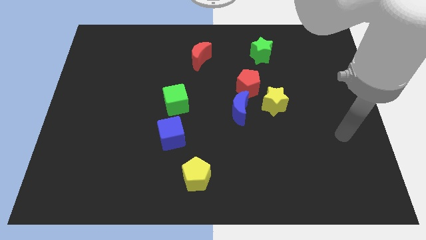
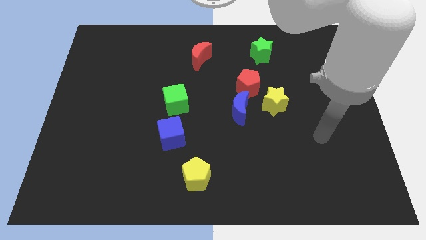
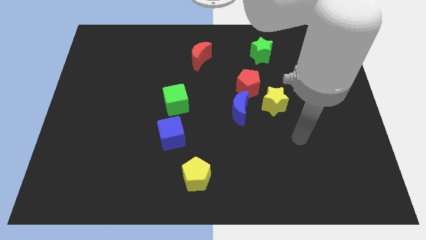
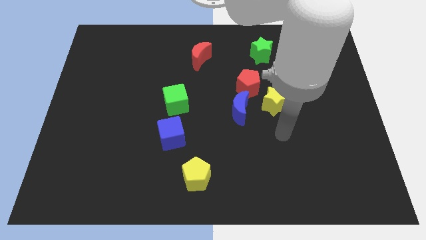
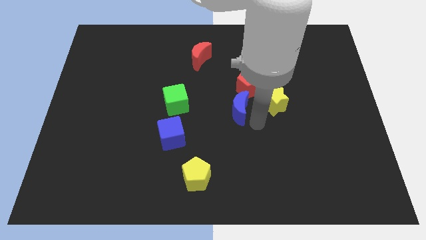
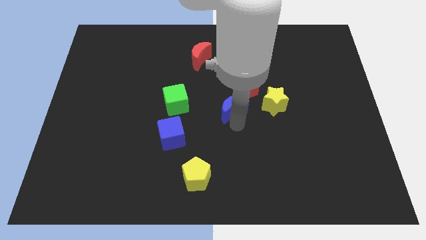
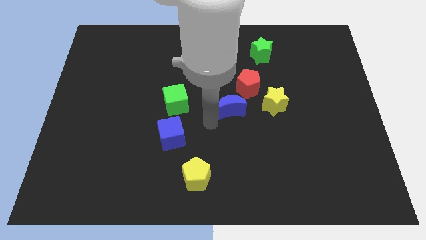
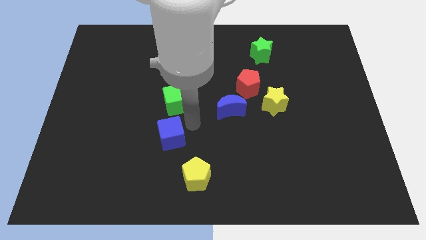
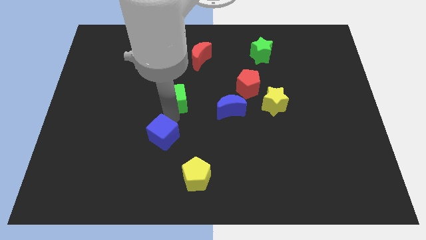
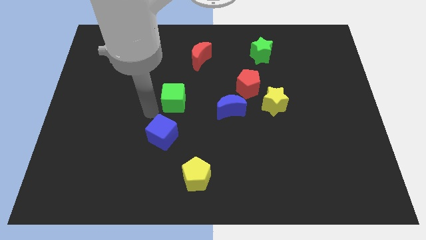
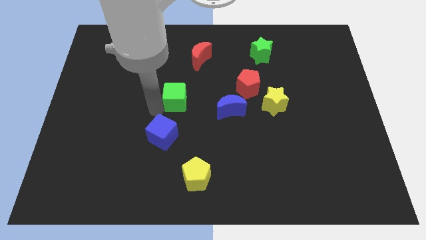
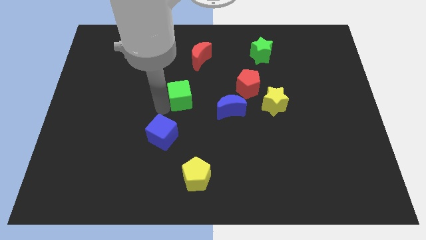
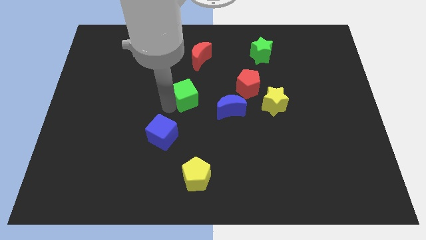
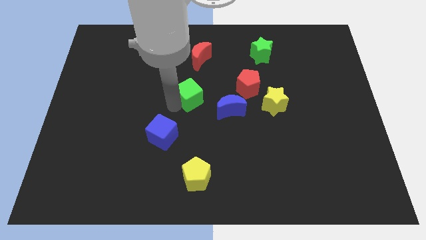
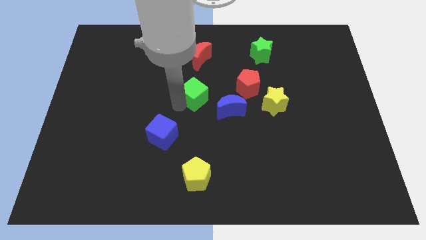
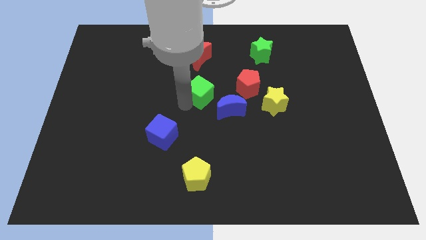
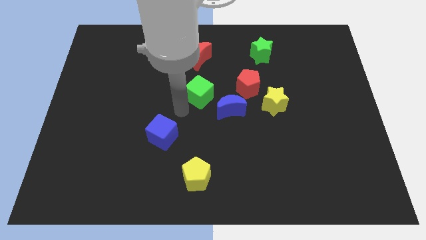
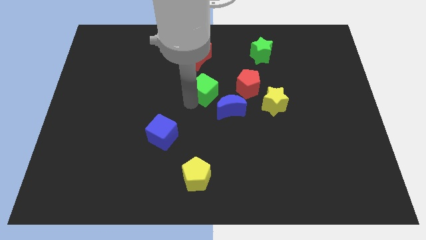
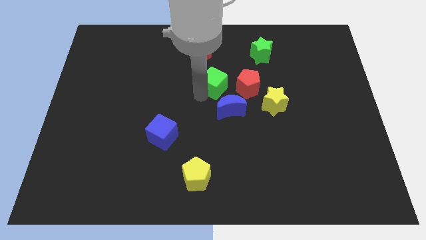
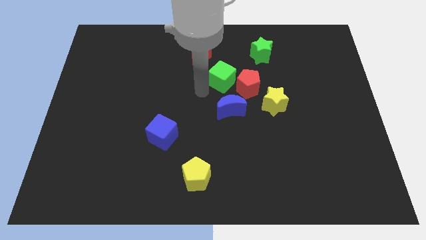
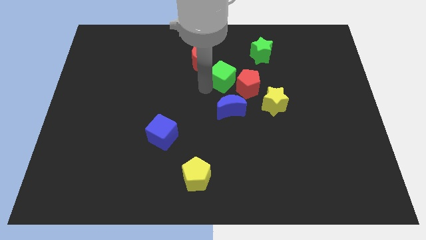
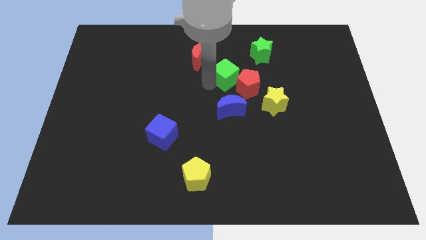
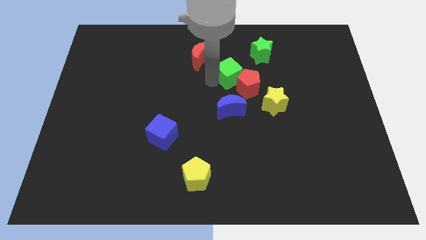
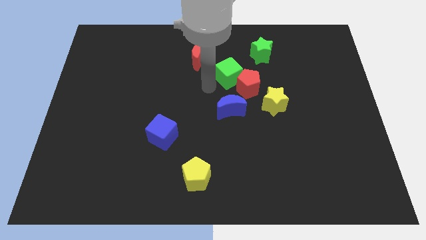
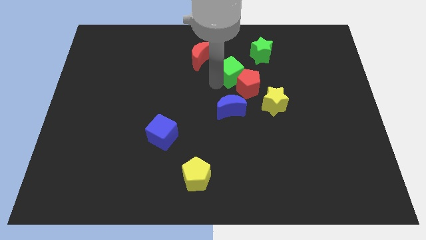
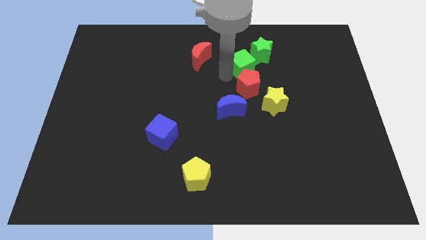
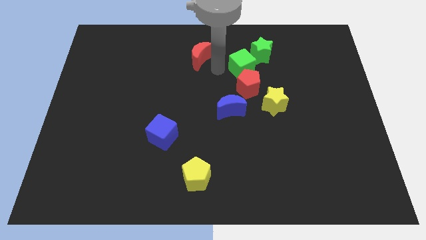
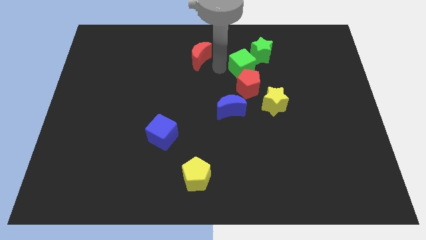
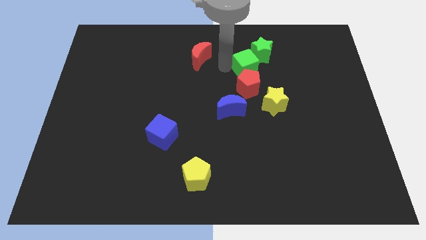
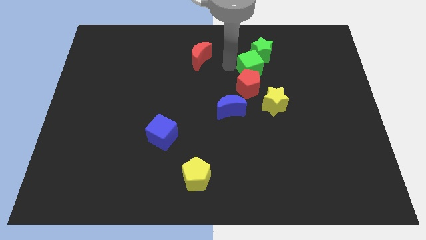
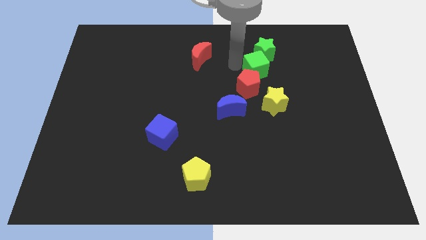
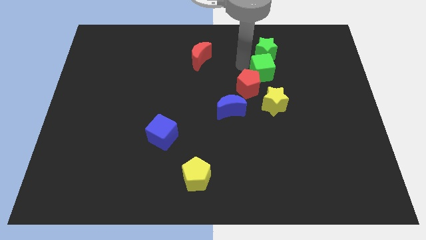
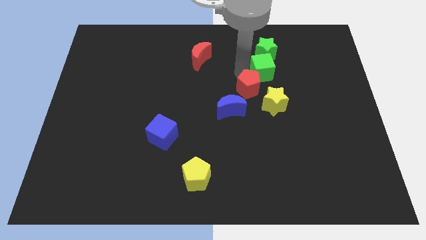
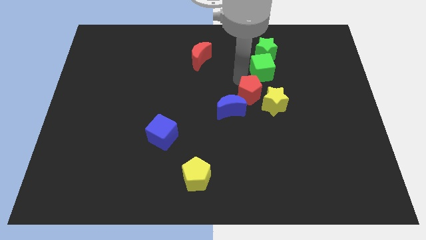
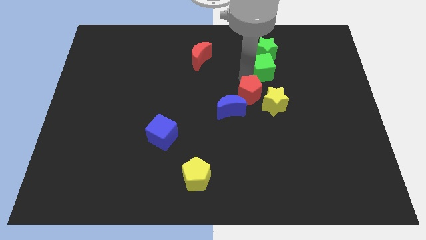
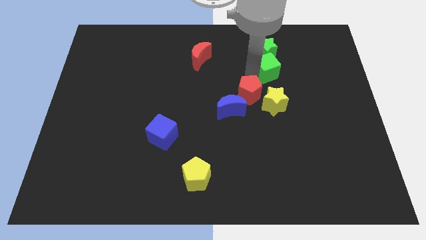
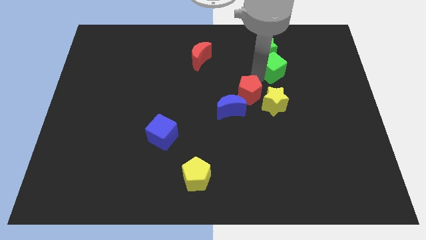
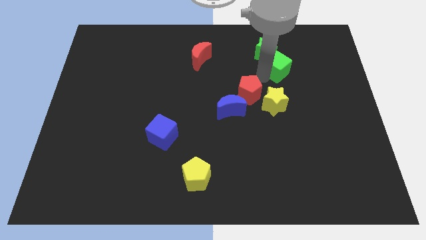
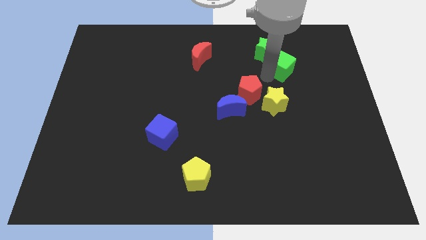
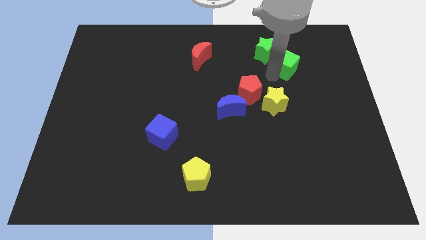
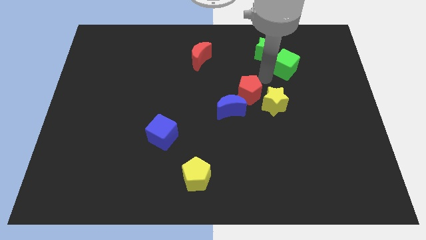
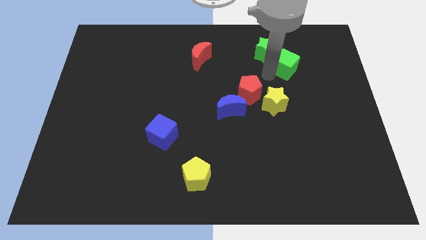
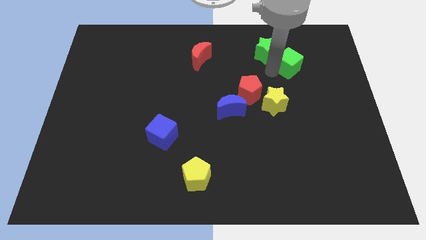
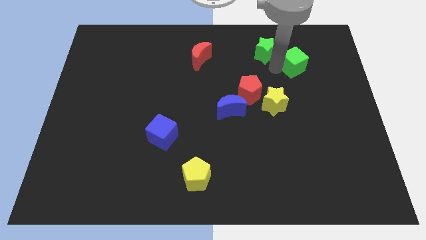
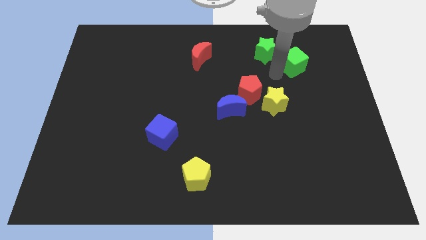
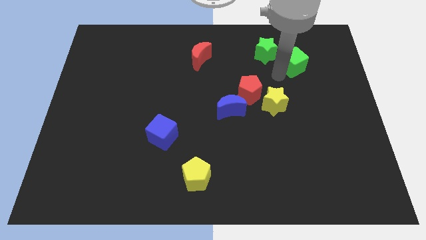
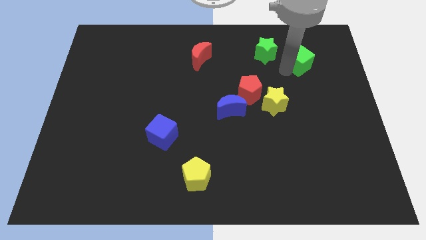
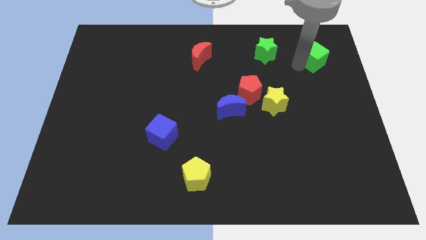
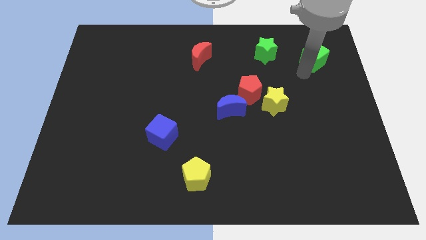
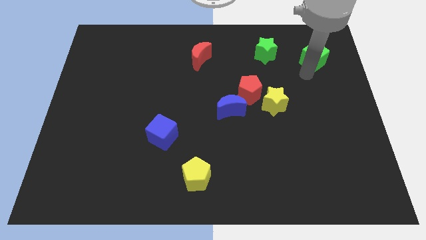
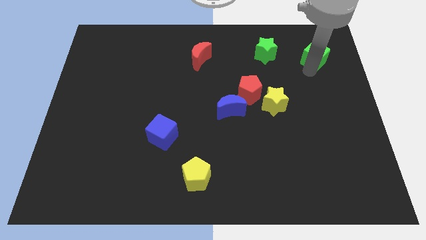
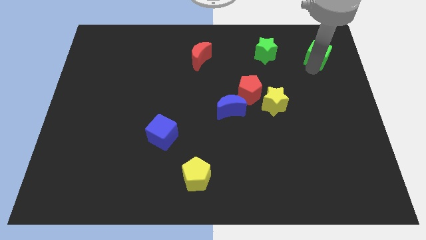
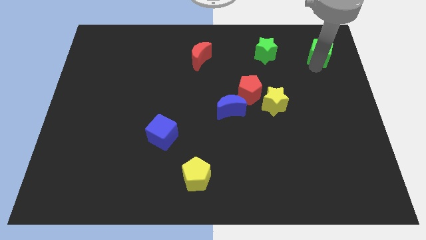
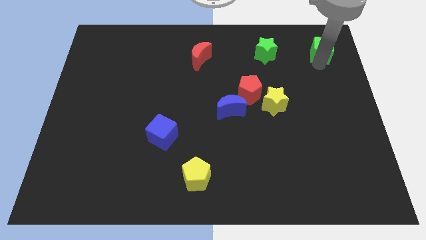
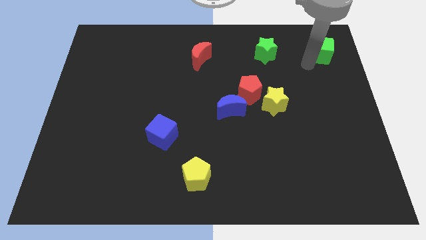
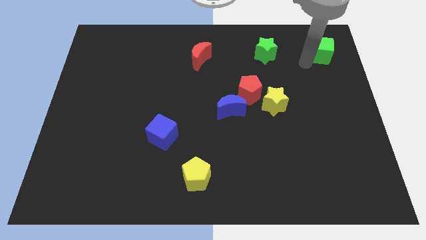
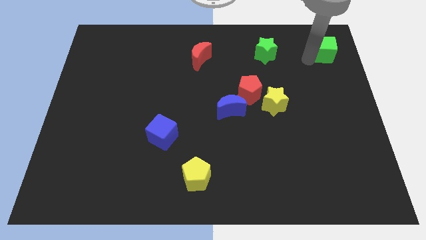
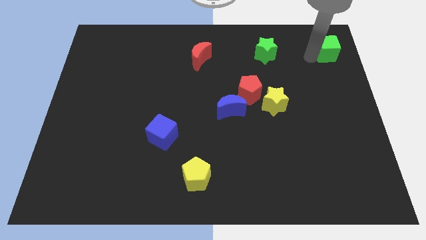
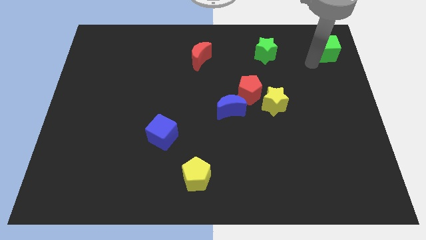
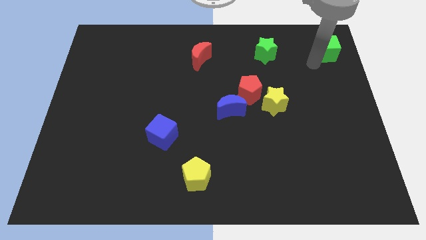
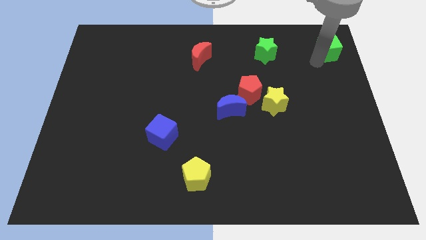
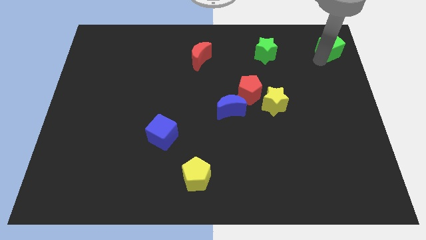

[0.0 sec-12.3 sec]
move the green cube to the upper right corner
